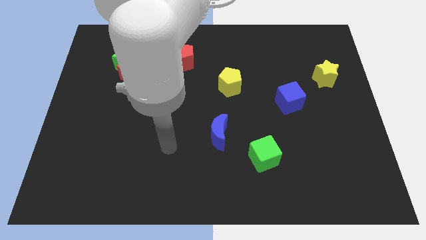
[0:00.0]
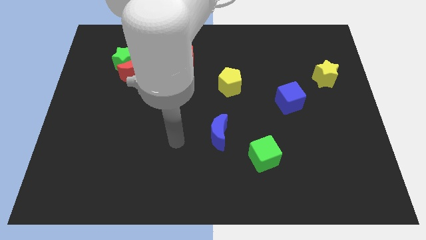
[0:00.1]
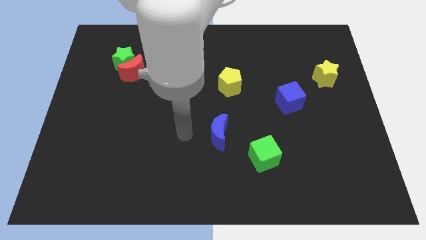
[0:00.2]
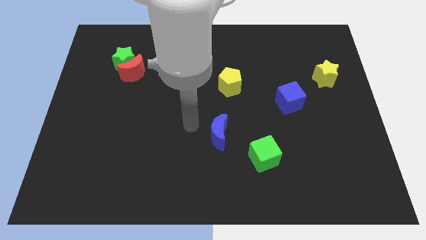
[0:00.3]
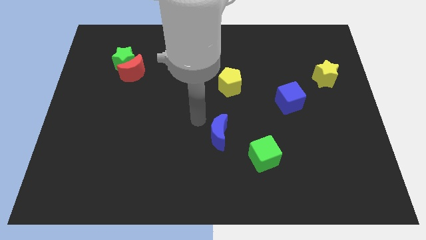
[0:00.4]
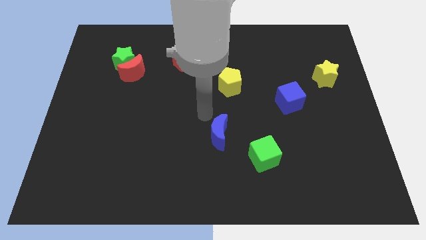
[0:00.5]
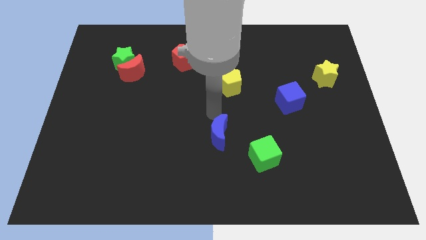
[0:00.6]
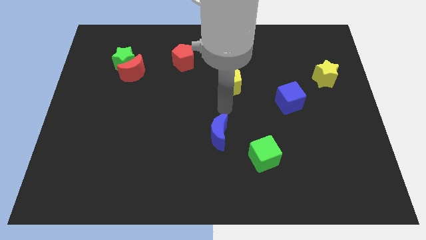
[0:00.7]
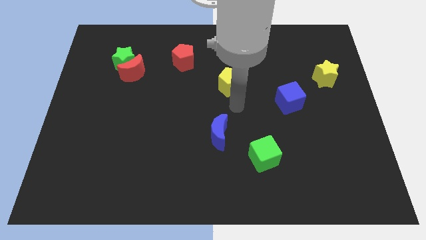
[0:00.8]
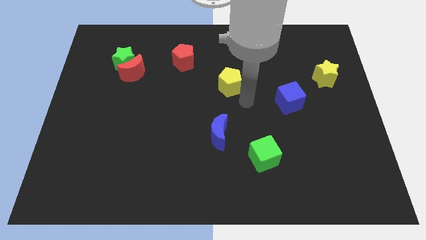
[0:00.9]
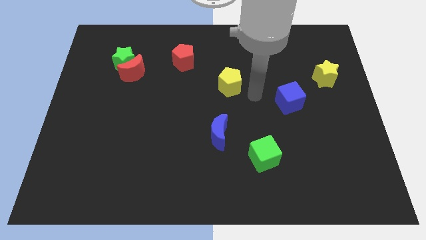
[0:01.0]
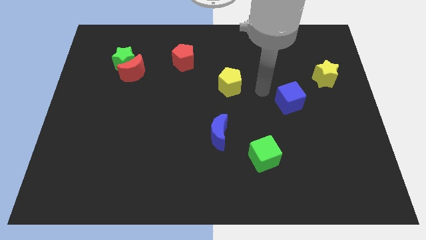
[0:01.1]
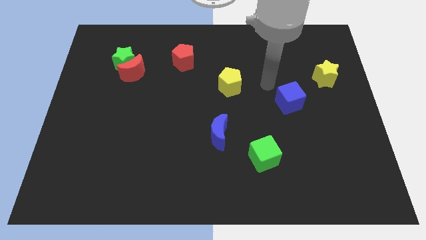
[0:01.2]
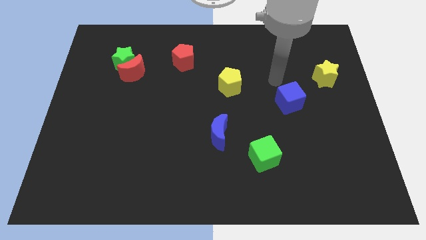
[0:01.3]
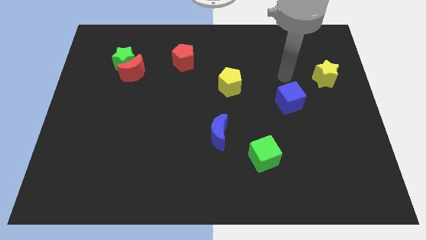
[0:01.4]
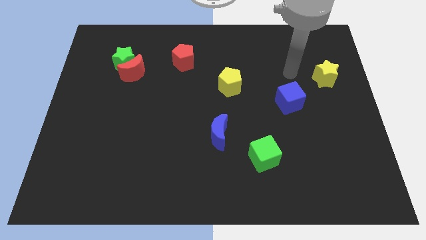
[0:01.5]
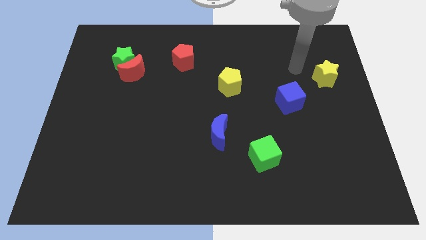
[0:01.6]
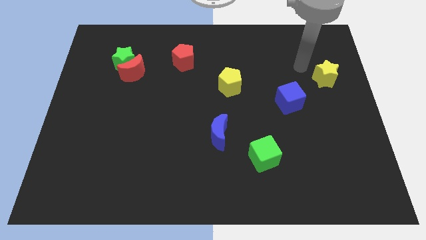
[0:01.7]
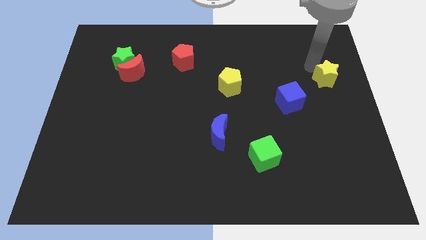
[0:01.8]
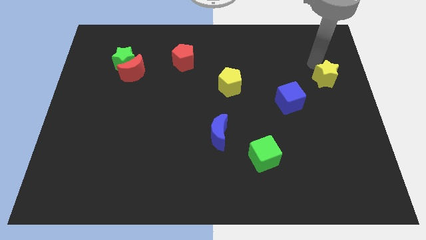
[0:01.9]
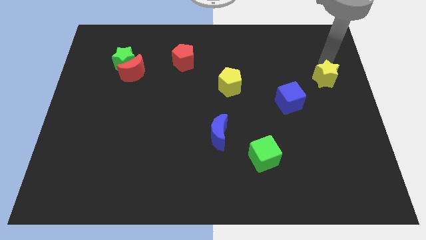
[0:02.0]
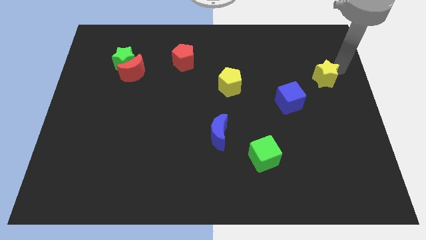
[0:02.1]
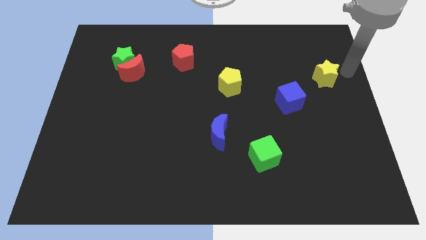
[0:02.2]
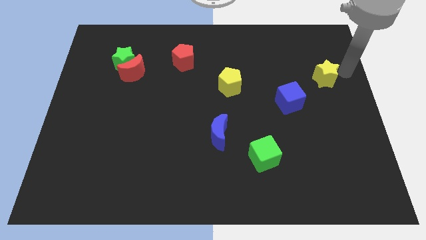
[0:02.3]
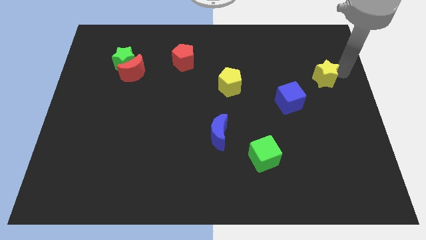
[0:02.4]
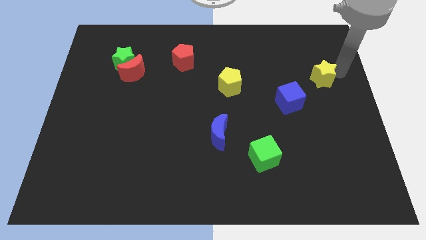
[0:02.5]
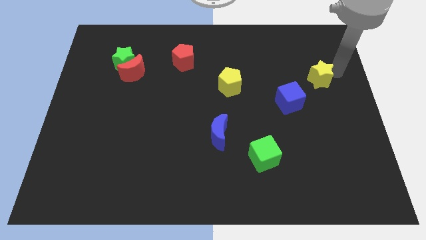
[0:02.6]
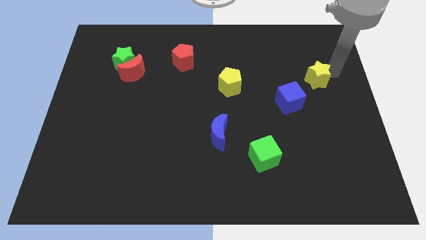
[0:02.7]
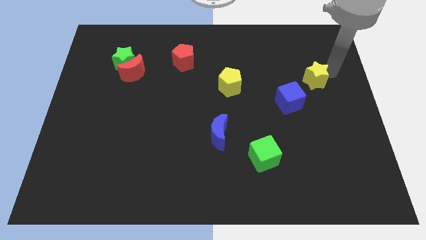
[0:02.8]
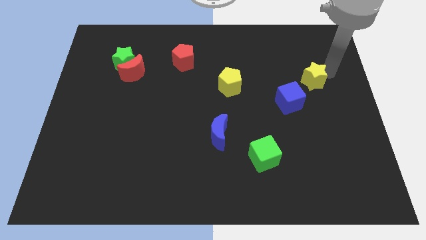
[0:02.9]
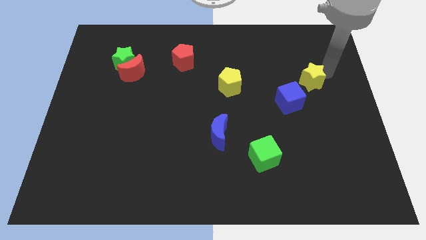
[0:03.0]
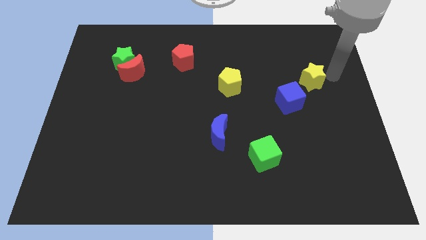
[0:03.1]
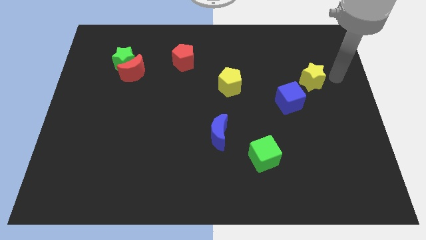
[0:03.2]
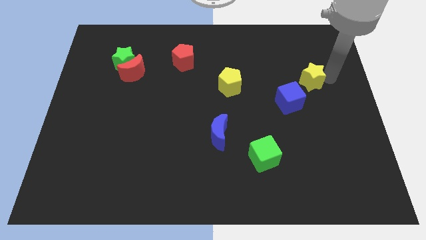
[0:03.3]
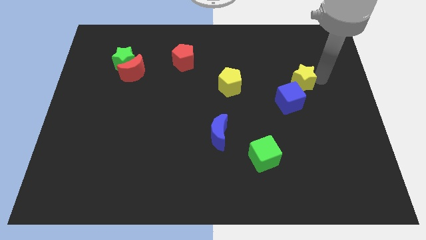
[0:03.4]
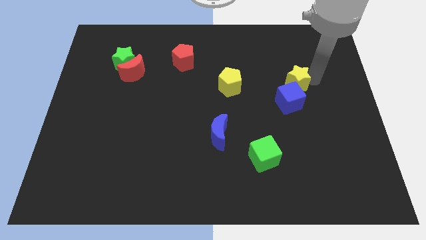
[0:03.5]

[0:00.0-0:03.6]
push the yellow star to the left a bit

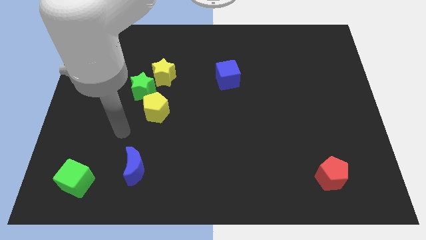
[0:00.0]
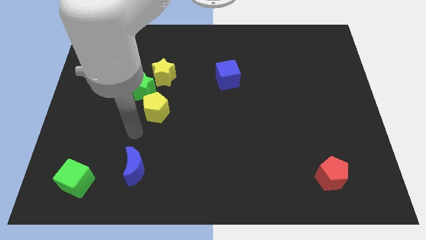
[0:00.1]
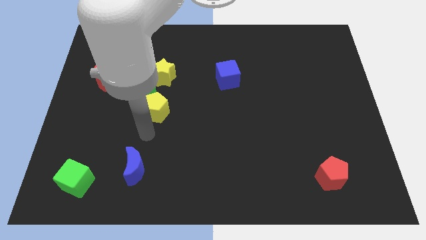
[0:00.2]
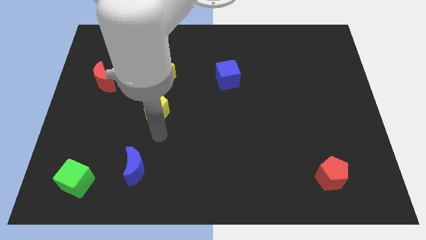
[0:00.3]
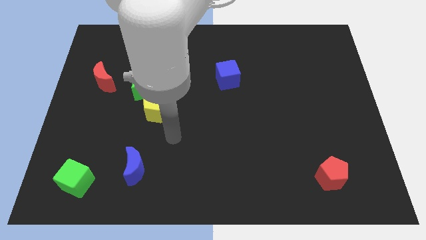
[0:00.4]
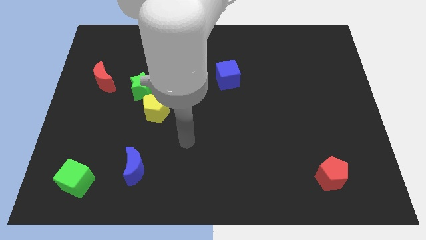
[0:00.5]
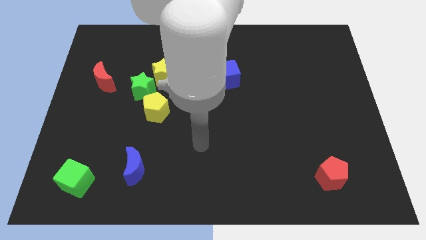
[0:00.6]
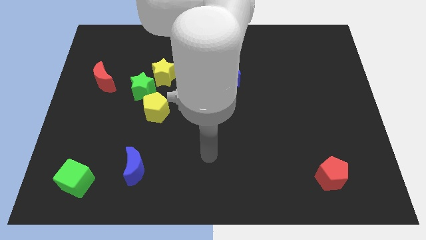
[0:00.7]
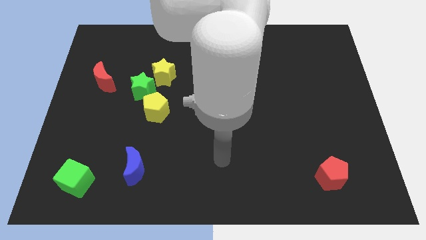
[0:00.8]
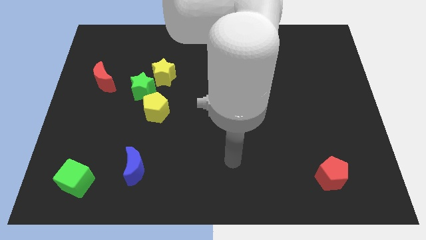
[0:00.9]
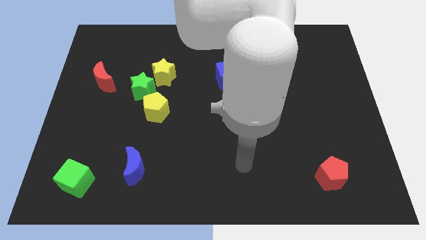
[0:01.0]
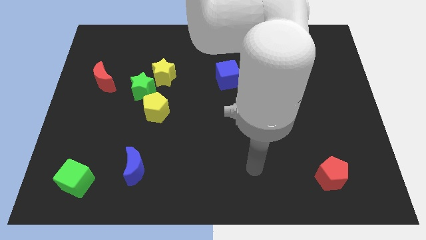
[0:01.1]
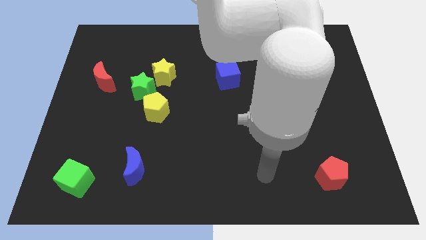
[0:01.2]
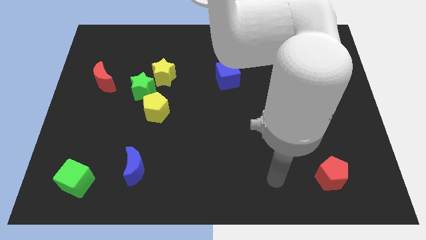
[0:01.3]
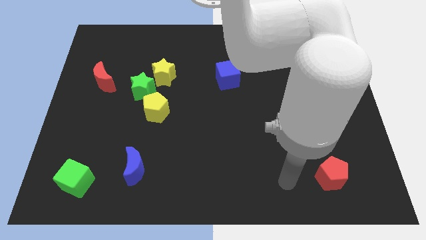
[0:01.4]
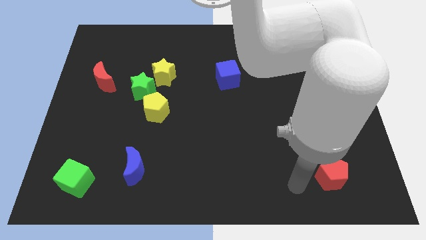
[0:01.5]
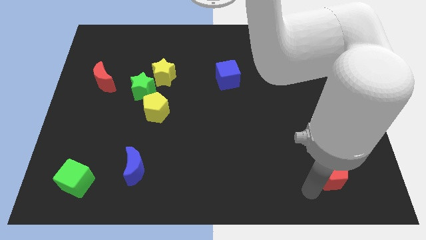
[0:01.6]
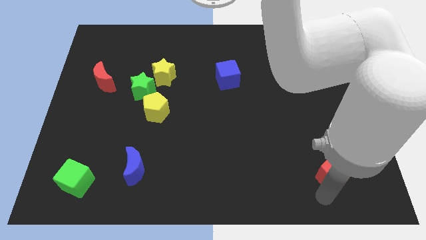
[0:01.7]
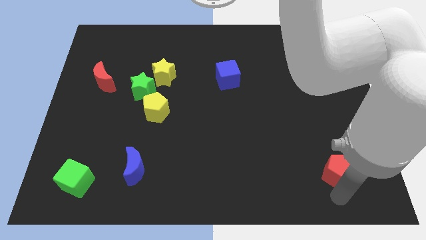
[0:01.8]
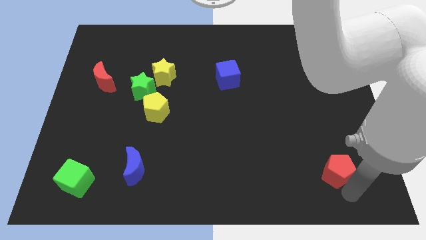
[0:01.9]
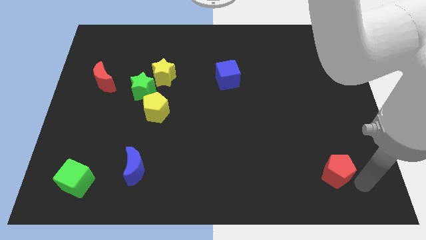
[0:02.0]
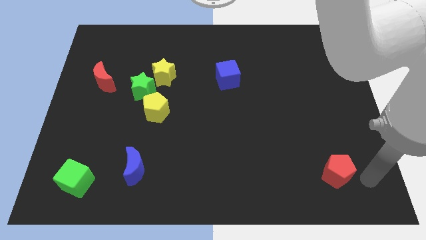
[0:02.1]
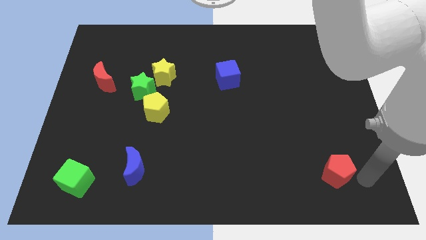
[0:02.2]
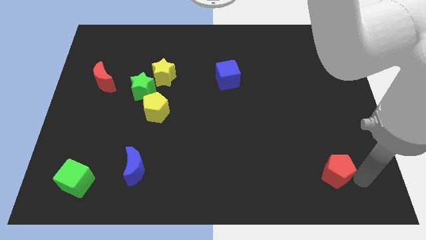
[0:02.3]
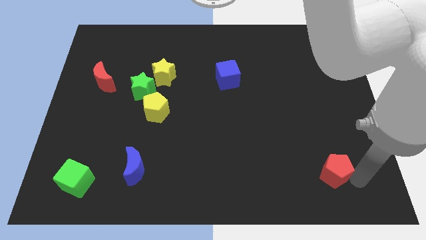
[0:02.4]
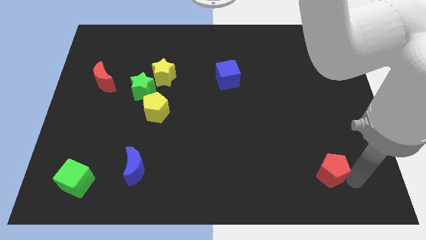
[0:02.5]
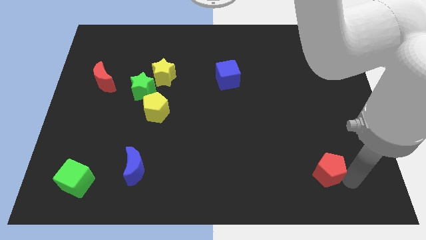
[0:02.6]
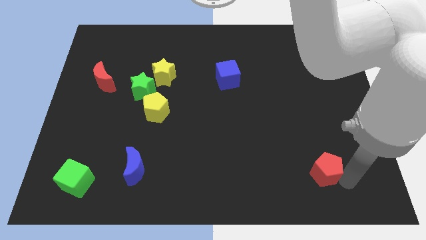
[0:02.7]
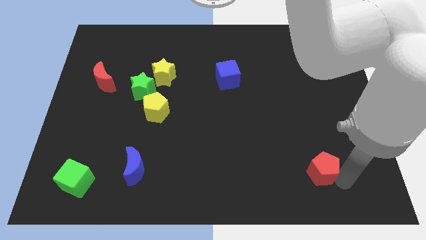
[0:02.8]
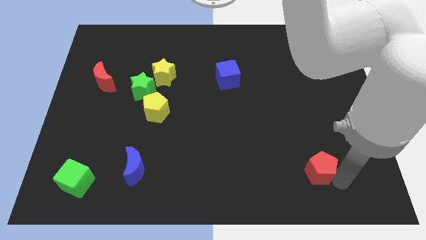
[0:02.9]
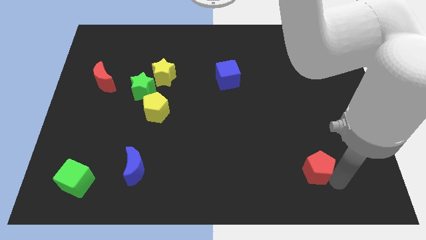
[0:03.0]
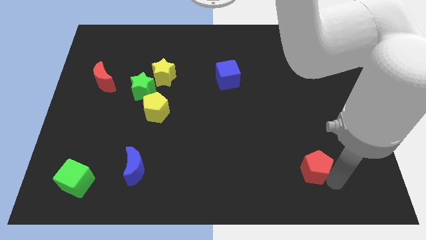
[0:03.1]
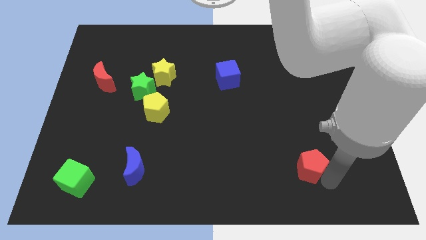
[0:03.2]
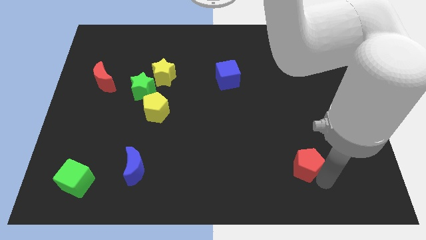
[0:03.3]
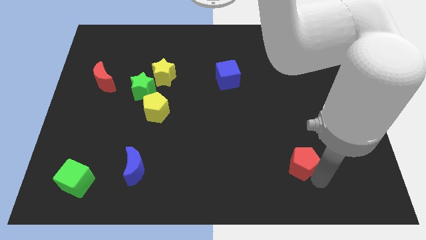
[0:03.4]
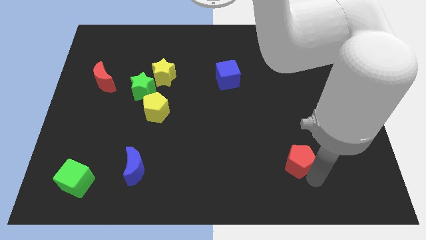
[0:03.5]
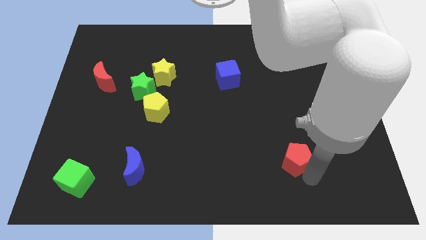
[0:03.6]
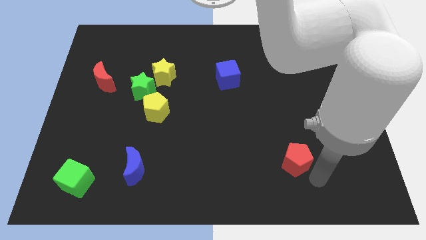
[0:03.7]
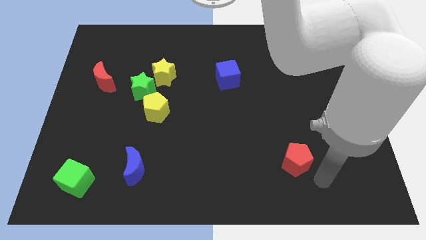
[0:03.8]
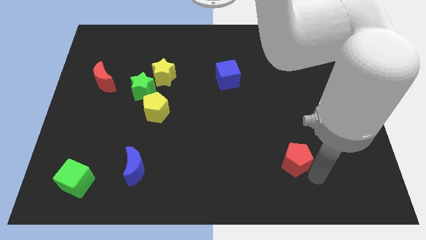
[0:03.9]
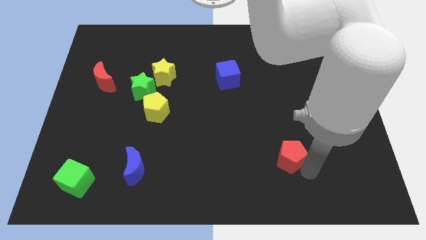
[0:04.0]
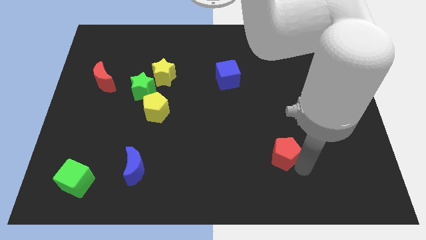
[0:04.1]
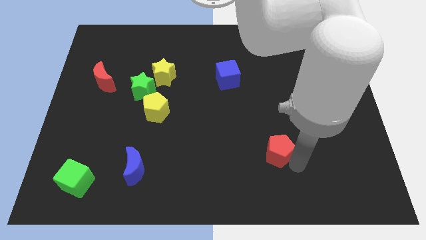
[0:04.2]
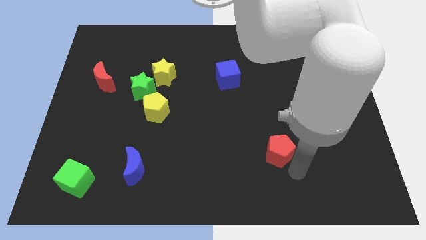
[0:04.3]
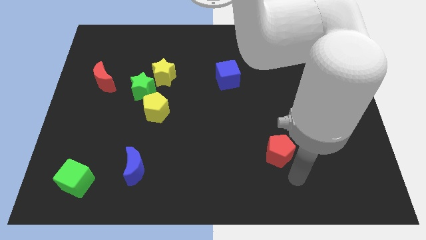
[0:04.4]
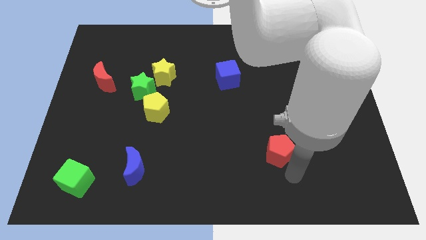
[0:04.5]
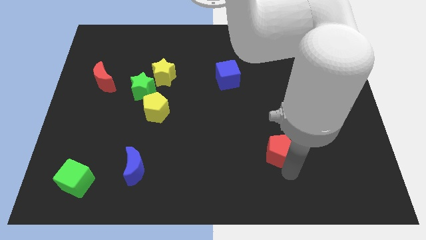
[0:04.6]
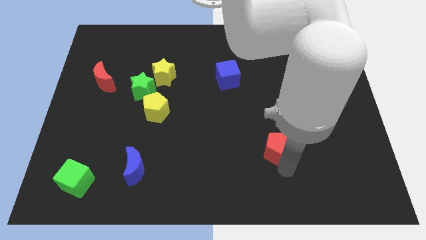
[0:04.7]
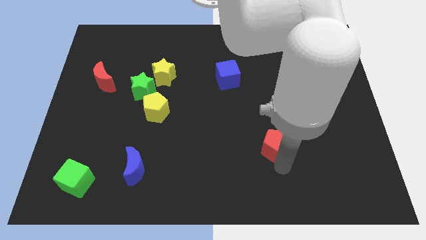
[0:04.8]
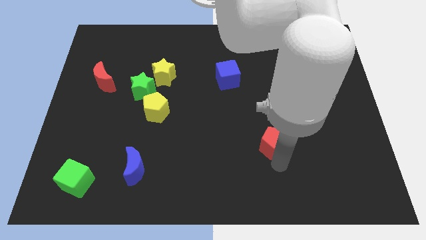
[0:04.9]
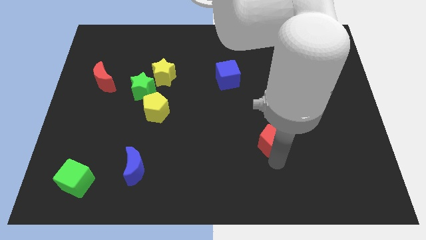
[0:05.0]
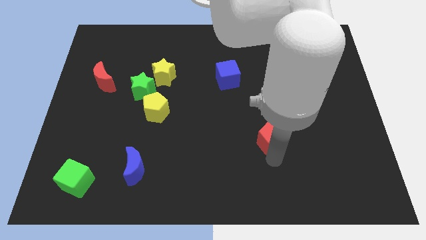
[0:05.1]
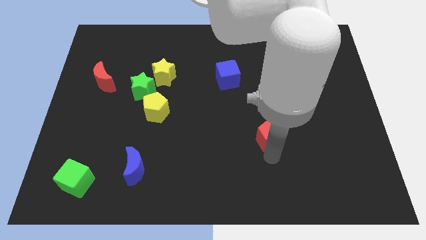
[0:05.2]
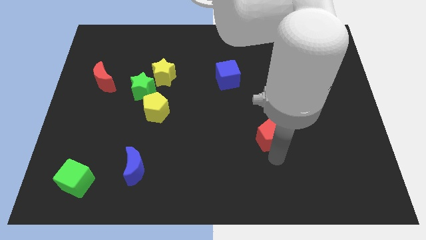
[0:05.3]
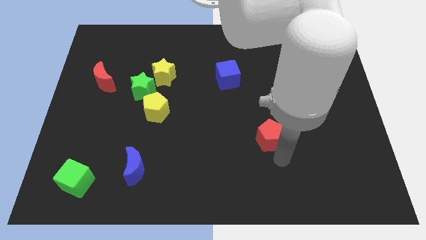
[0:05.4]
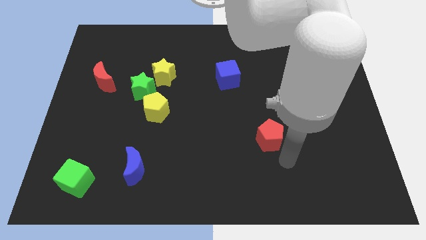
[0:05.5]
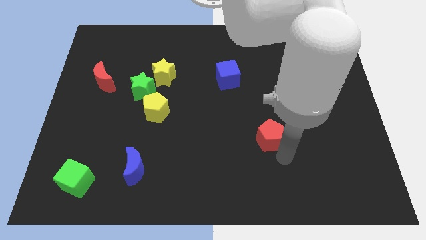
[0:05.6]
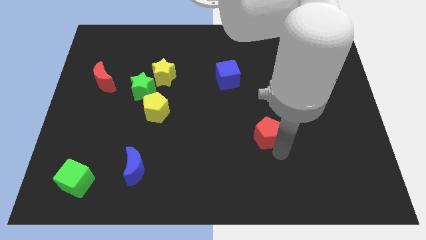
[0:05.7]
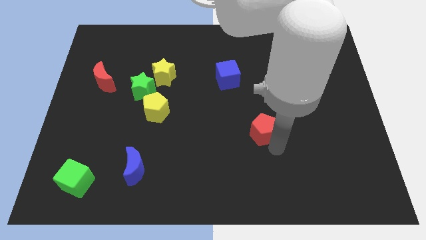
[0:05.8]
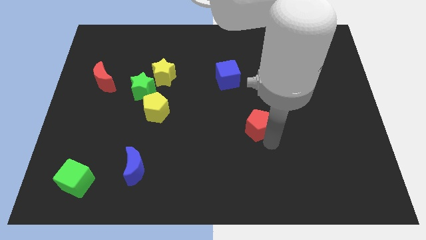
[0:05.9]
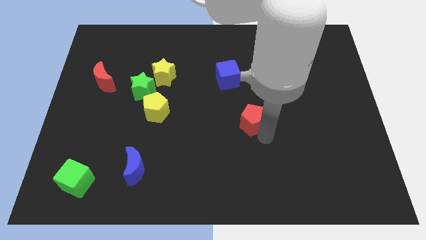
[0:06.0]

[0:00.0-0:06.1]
move the red pentagon upwards and to the left
